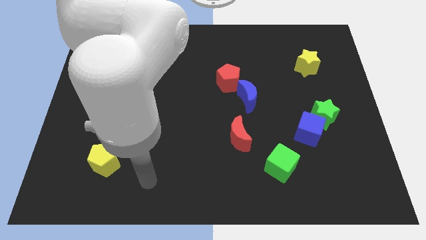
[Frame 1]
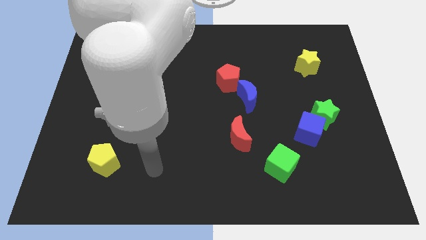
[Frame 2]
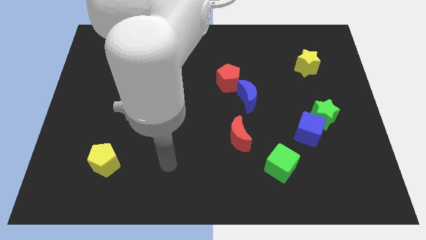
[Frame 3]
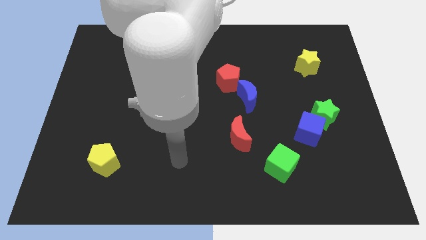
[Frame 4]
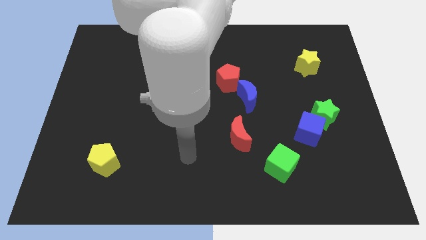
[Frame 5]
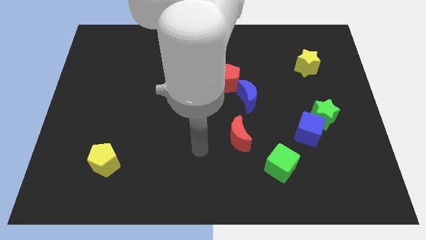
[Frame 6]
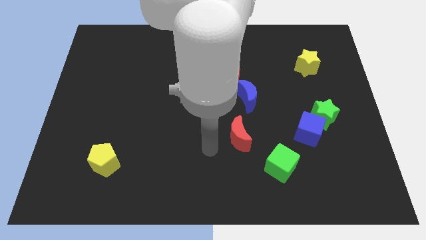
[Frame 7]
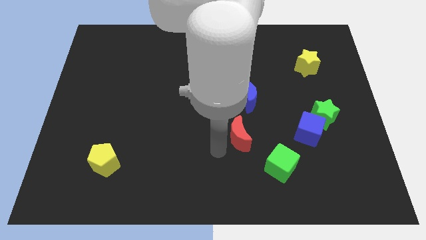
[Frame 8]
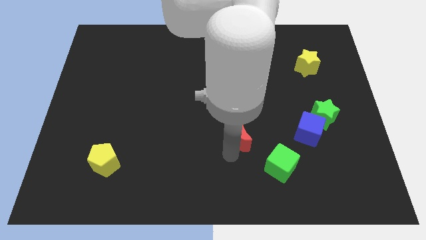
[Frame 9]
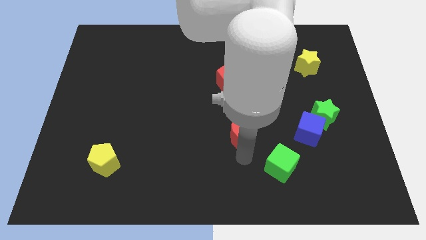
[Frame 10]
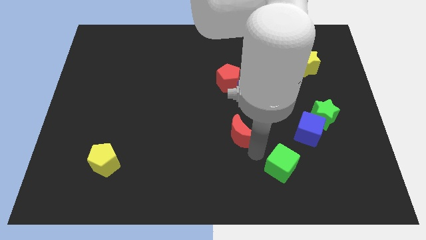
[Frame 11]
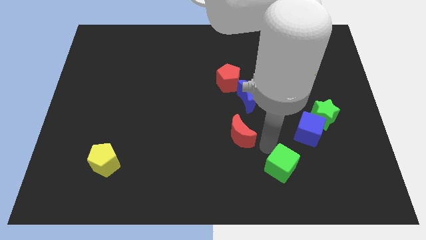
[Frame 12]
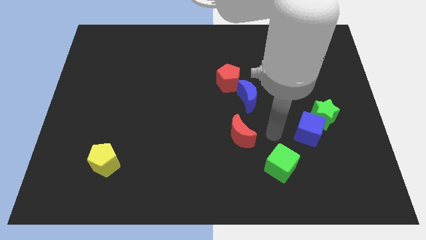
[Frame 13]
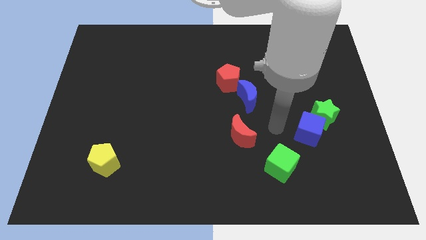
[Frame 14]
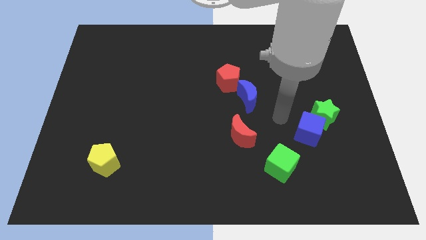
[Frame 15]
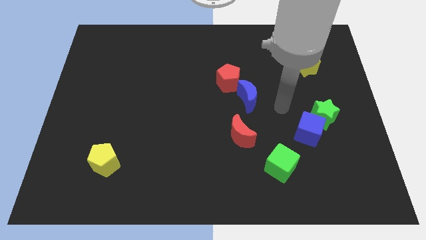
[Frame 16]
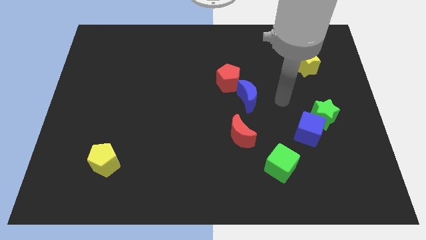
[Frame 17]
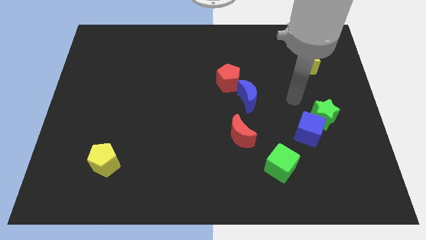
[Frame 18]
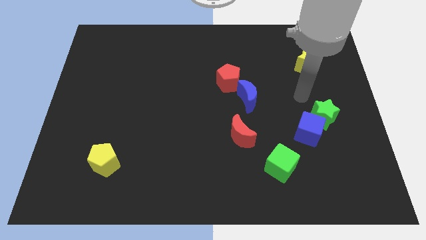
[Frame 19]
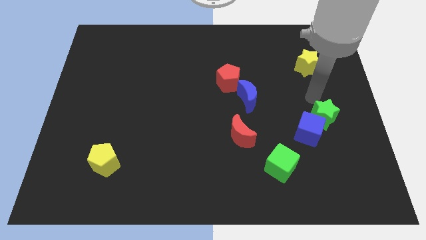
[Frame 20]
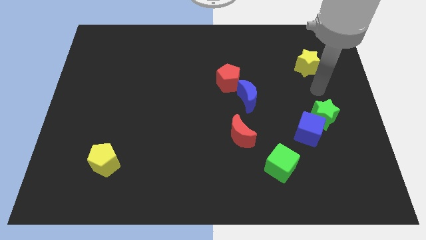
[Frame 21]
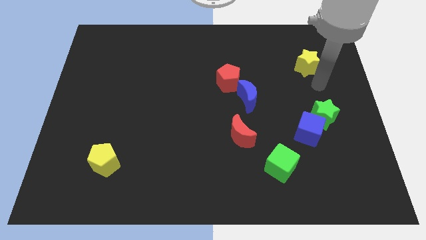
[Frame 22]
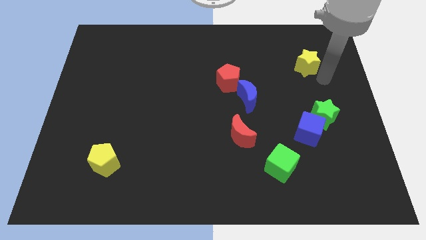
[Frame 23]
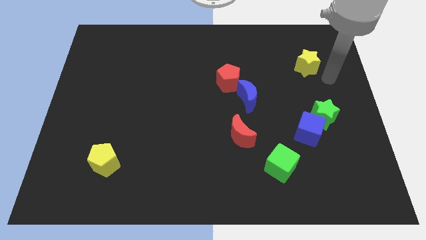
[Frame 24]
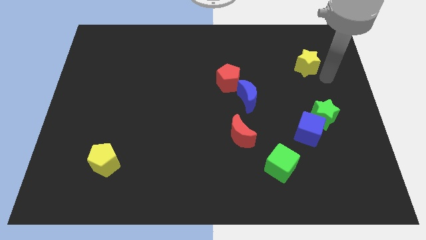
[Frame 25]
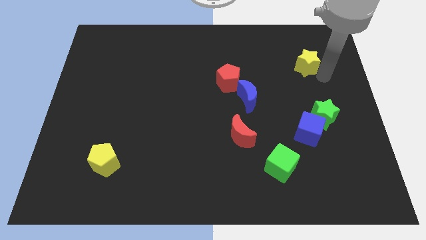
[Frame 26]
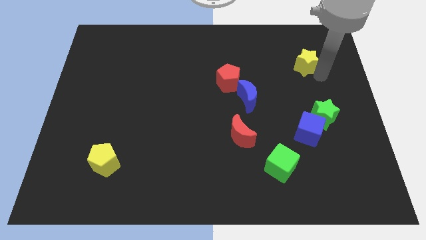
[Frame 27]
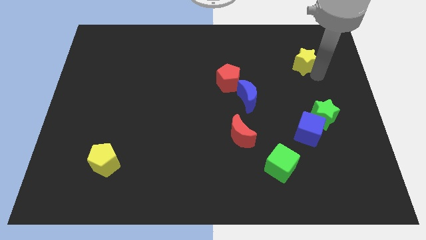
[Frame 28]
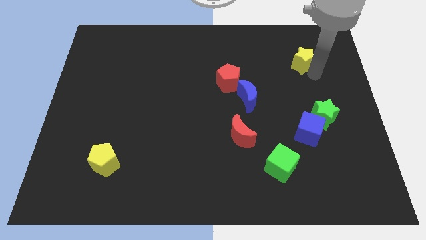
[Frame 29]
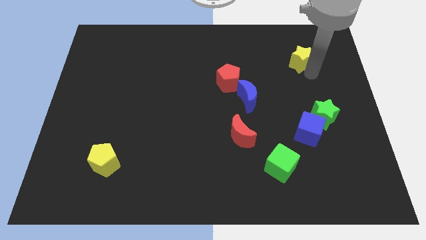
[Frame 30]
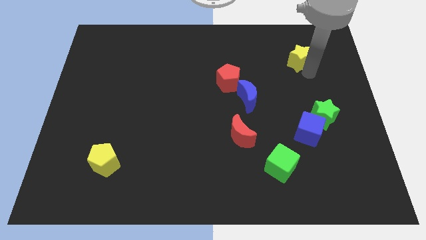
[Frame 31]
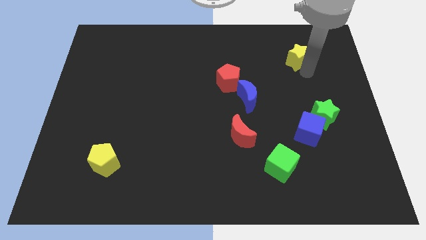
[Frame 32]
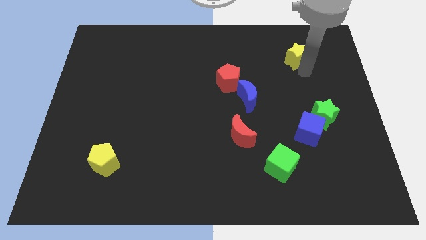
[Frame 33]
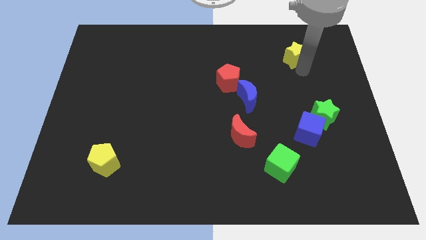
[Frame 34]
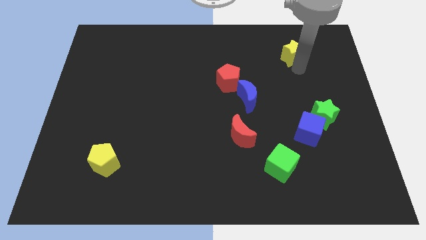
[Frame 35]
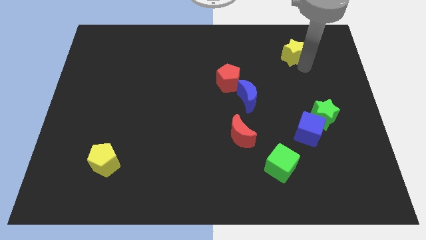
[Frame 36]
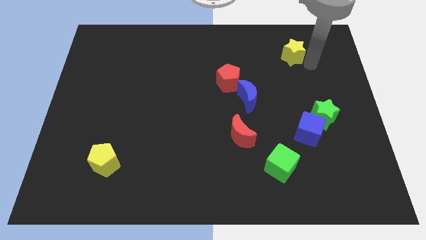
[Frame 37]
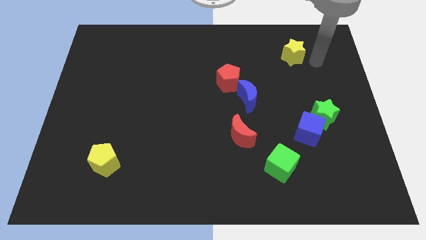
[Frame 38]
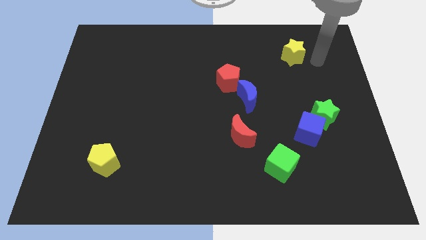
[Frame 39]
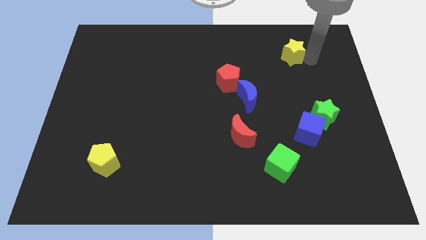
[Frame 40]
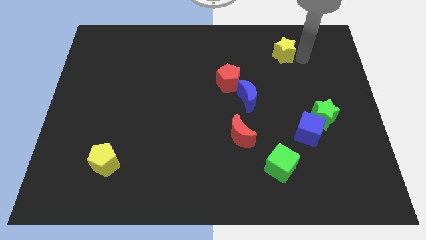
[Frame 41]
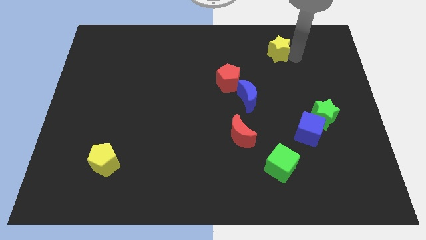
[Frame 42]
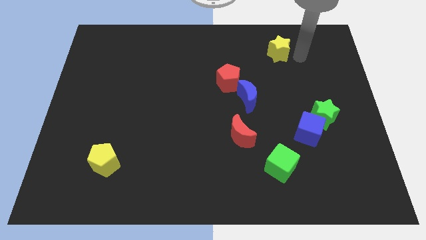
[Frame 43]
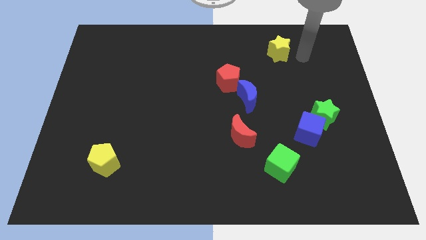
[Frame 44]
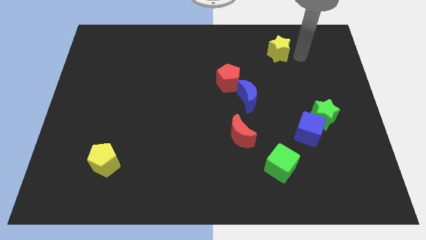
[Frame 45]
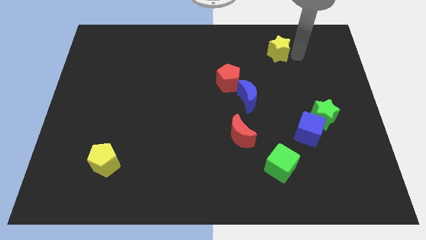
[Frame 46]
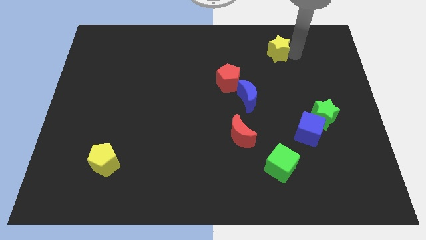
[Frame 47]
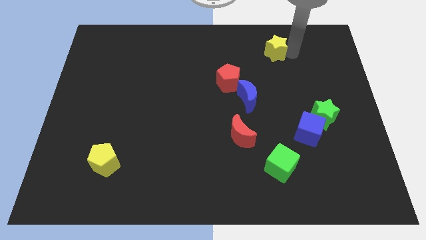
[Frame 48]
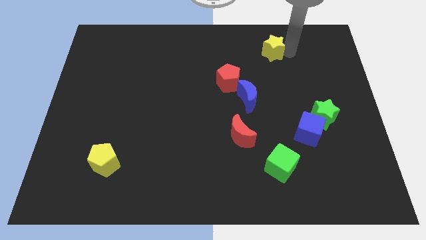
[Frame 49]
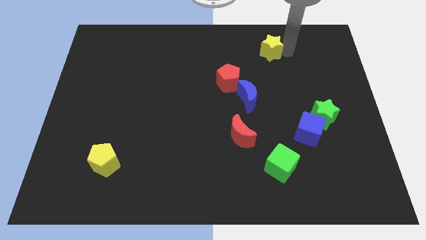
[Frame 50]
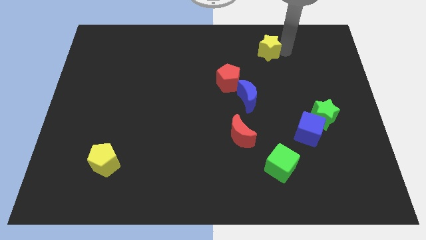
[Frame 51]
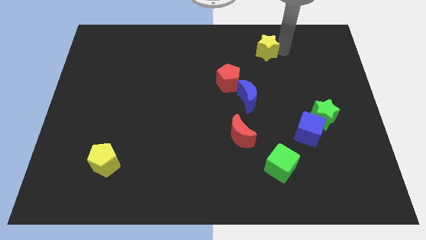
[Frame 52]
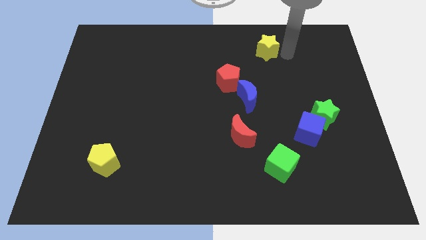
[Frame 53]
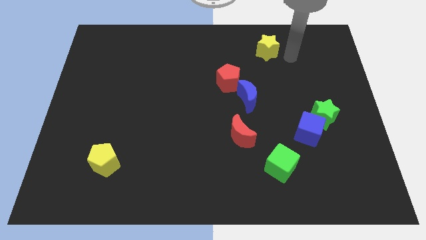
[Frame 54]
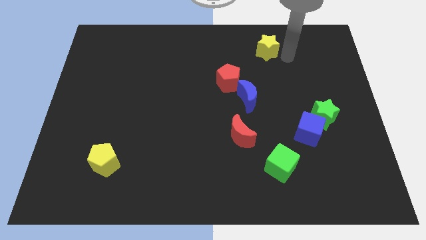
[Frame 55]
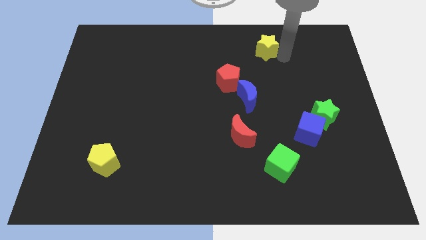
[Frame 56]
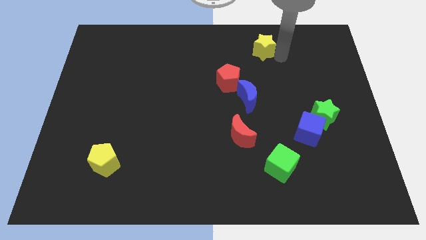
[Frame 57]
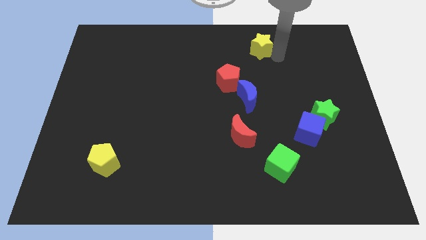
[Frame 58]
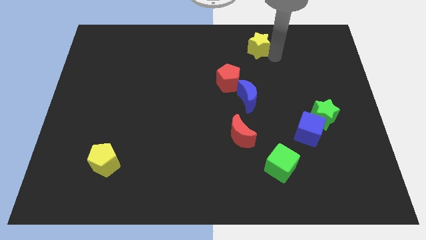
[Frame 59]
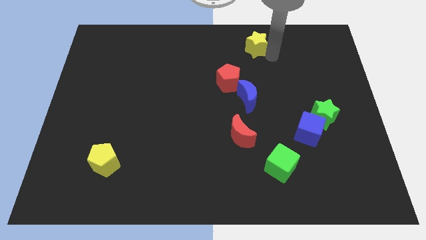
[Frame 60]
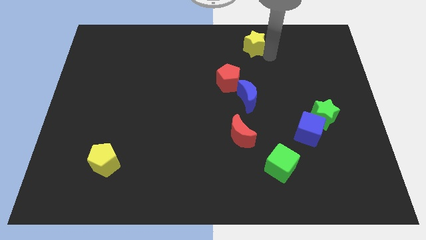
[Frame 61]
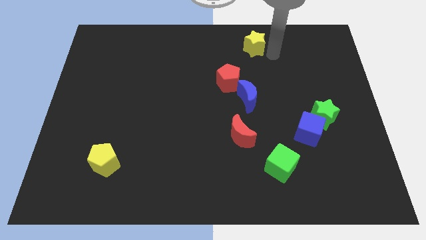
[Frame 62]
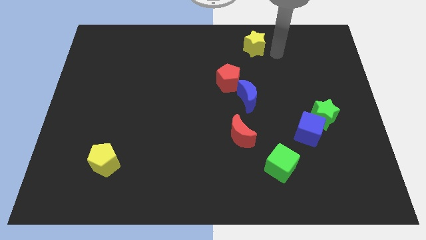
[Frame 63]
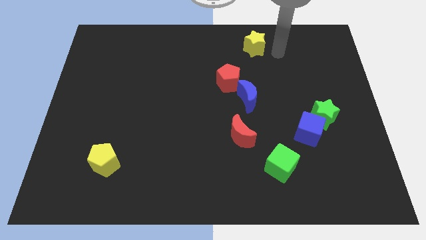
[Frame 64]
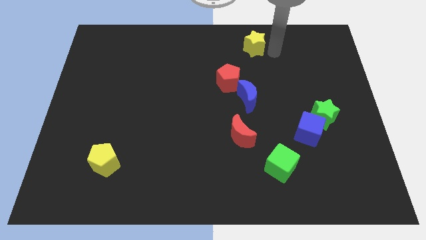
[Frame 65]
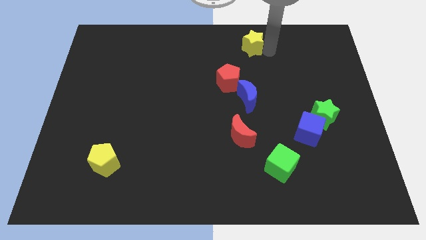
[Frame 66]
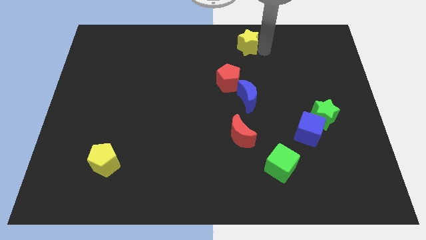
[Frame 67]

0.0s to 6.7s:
move the yellow star to the top side
